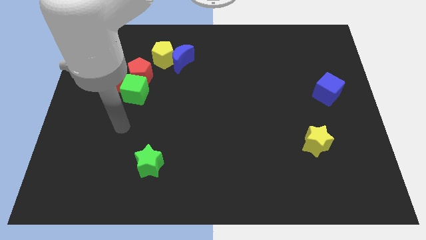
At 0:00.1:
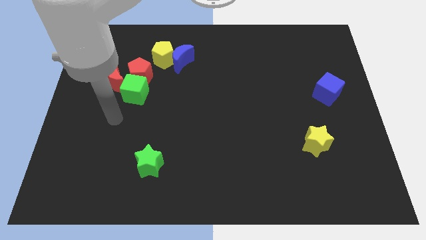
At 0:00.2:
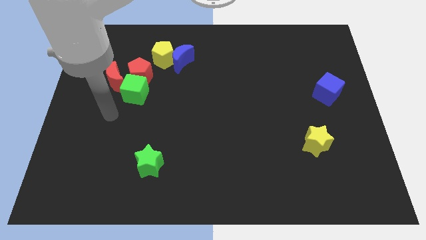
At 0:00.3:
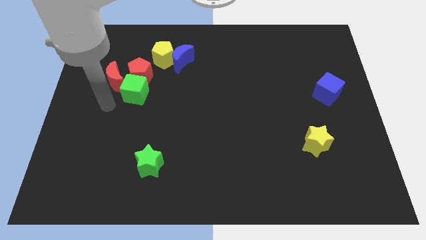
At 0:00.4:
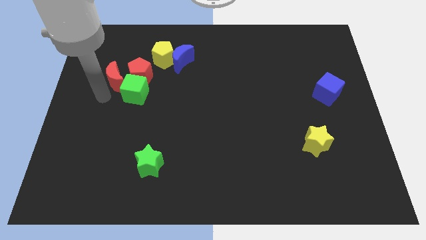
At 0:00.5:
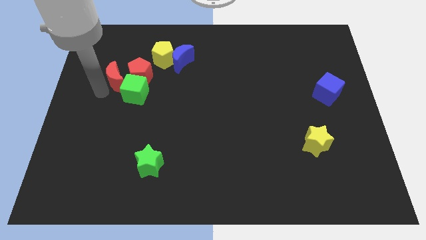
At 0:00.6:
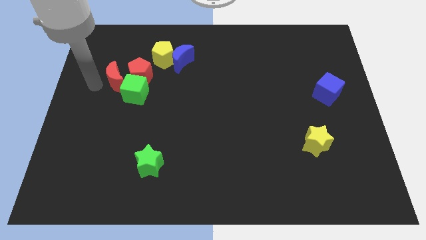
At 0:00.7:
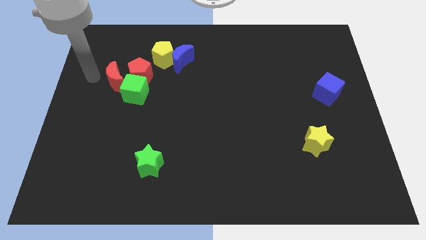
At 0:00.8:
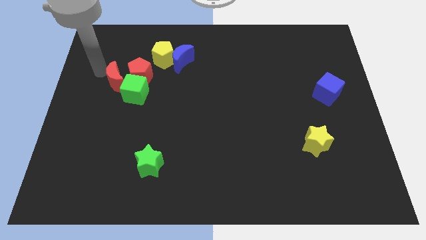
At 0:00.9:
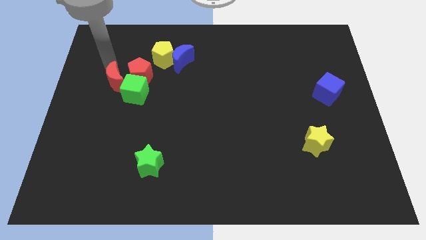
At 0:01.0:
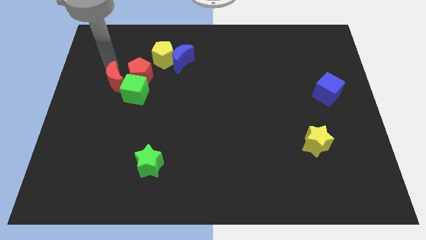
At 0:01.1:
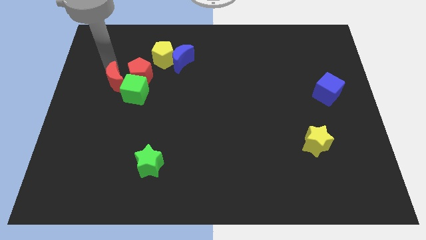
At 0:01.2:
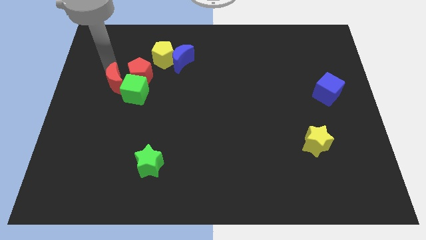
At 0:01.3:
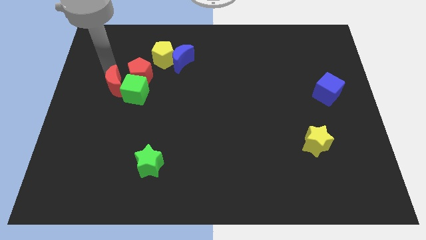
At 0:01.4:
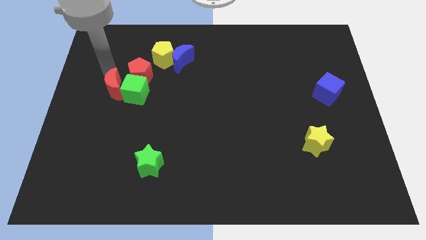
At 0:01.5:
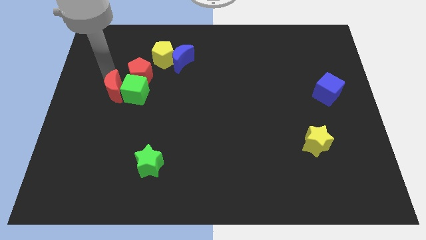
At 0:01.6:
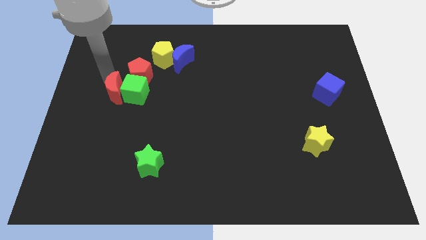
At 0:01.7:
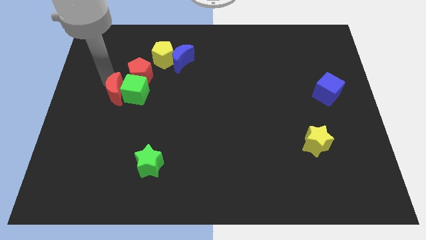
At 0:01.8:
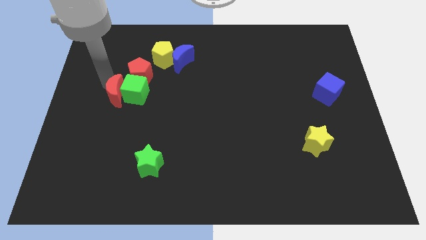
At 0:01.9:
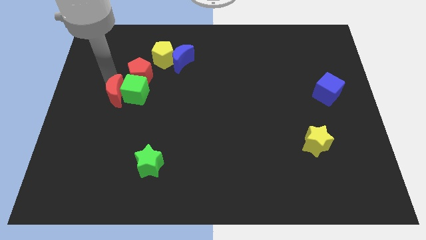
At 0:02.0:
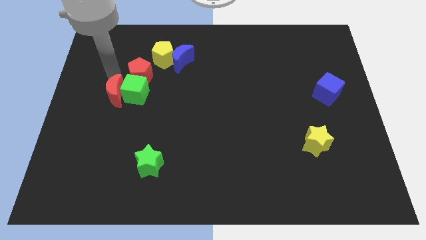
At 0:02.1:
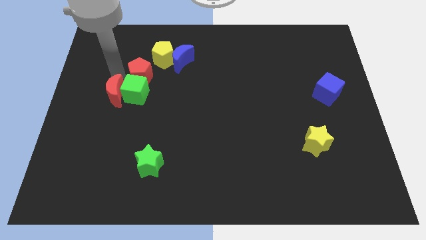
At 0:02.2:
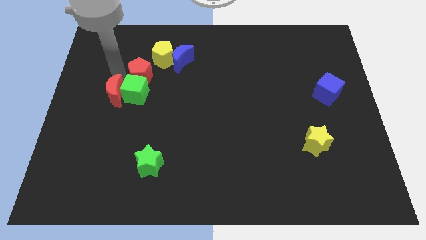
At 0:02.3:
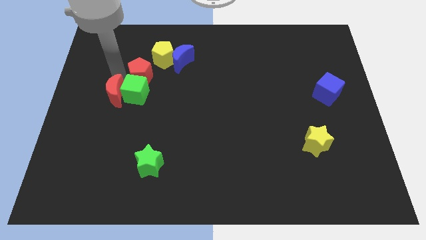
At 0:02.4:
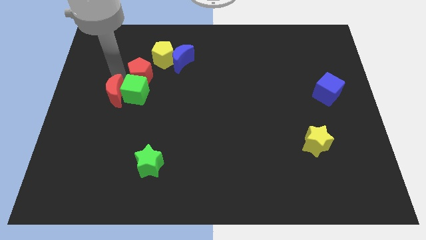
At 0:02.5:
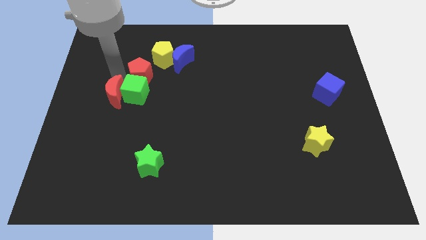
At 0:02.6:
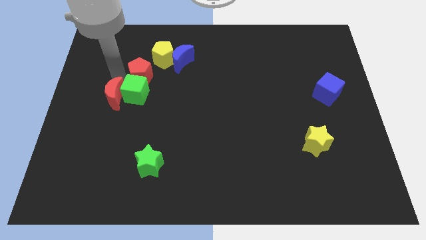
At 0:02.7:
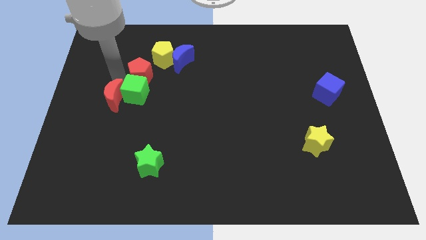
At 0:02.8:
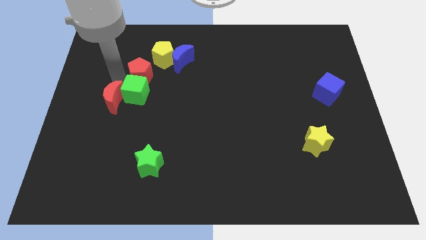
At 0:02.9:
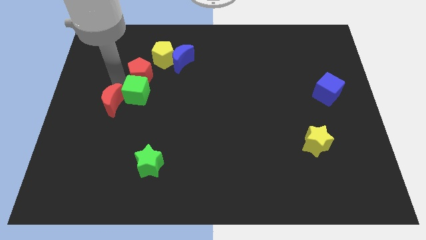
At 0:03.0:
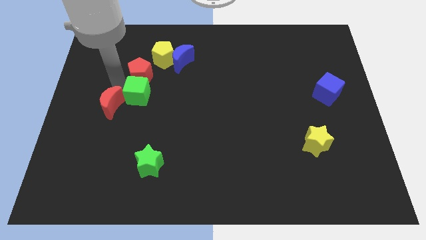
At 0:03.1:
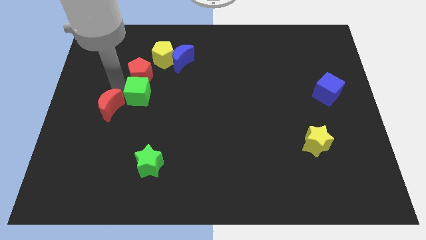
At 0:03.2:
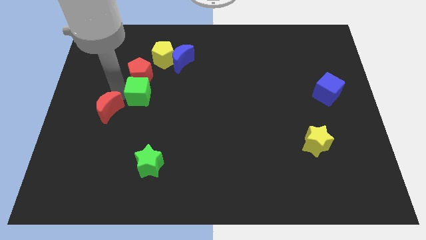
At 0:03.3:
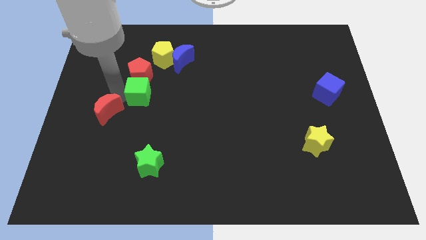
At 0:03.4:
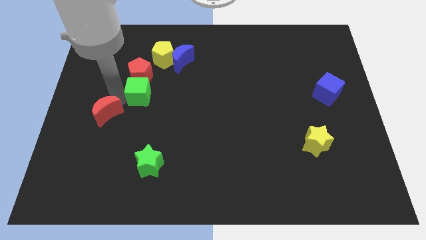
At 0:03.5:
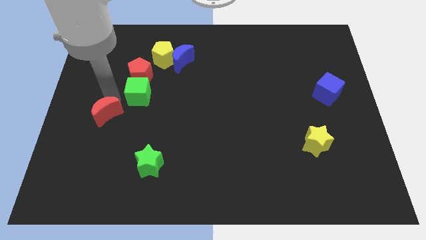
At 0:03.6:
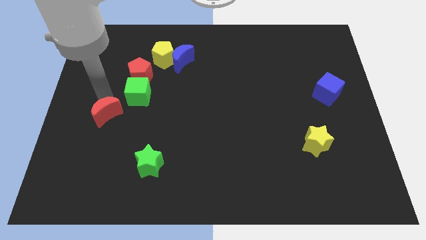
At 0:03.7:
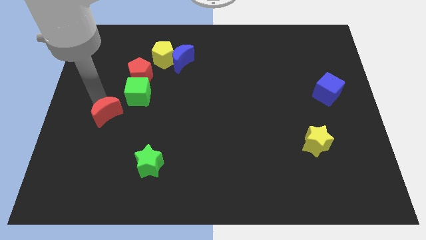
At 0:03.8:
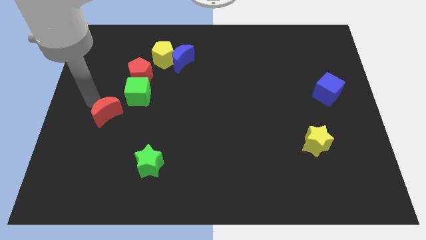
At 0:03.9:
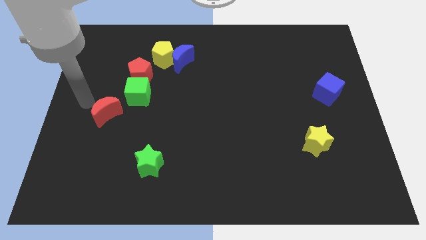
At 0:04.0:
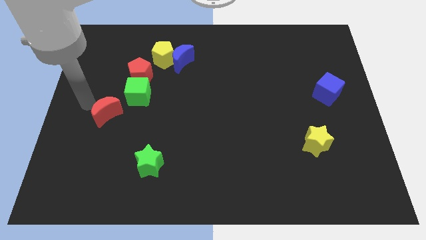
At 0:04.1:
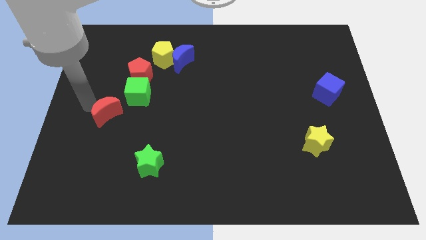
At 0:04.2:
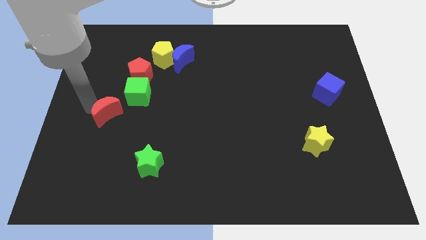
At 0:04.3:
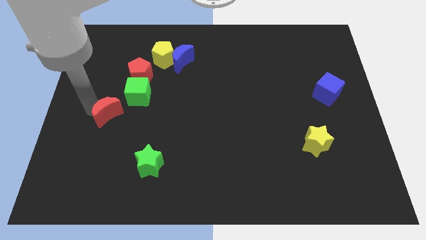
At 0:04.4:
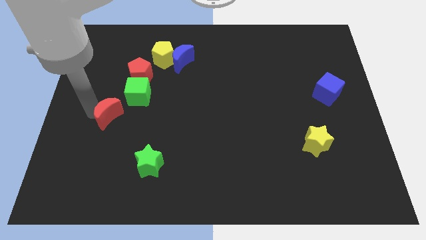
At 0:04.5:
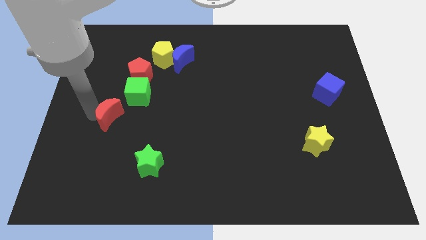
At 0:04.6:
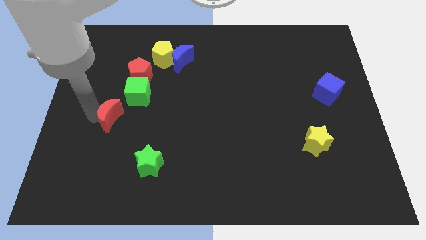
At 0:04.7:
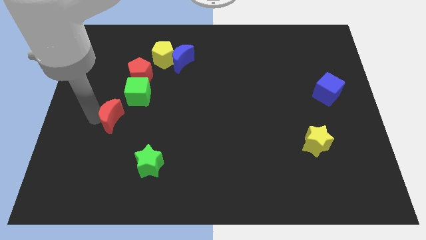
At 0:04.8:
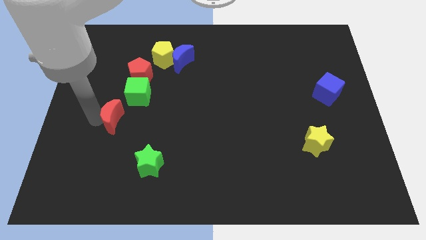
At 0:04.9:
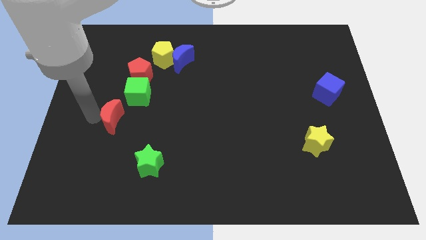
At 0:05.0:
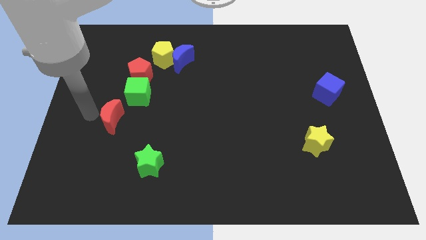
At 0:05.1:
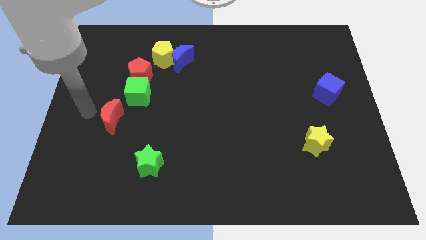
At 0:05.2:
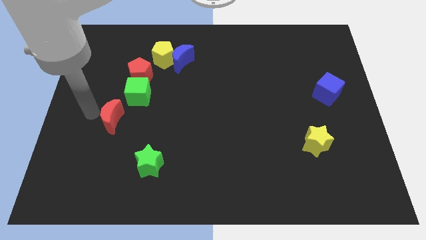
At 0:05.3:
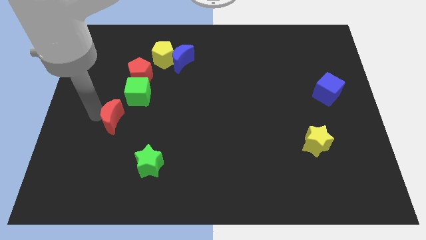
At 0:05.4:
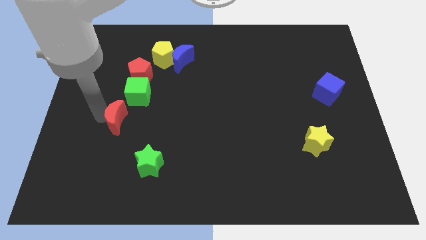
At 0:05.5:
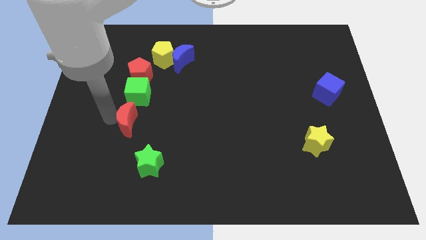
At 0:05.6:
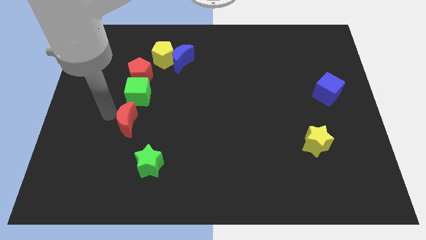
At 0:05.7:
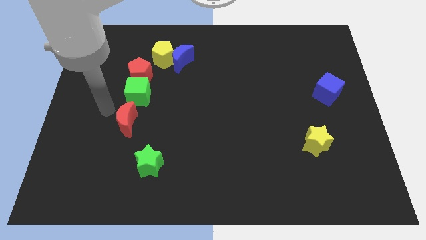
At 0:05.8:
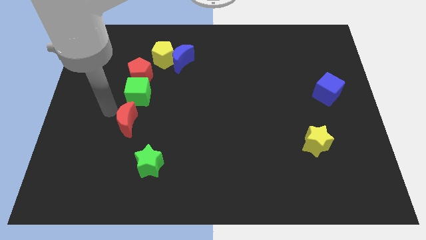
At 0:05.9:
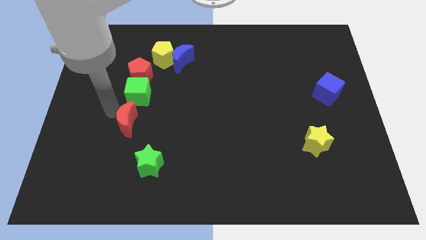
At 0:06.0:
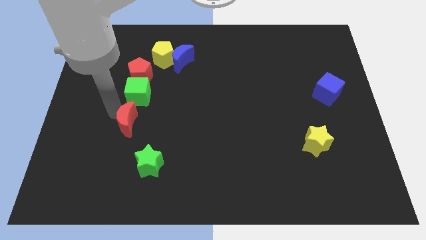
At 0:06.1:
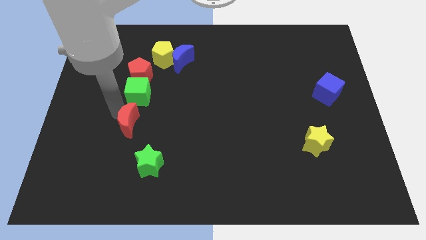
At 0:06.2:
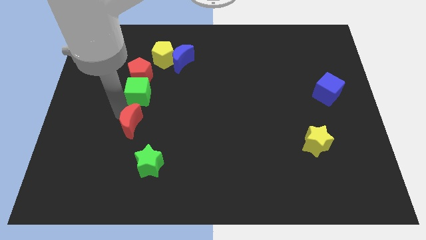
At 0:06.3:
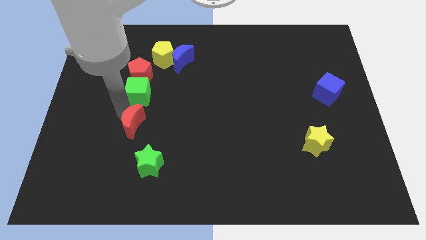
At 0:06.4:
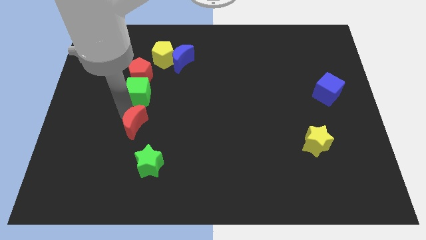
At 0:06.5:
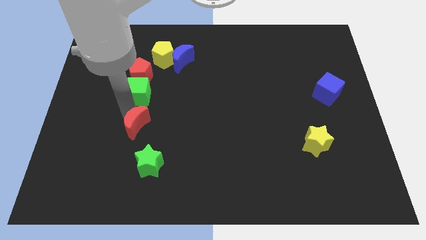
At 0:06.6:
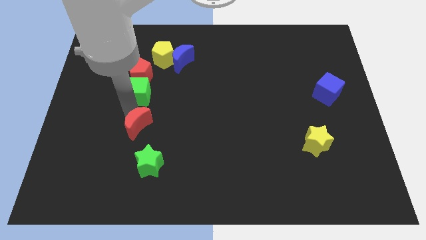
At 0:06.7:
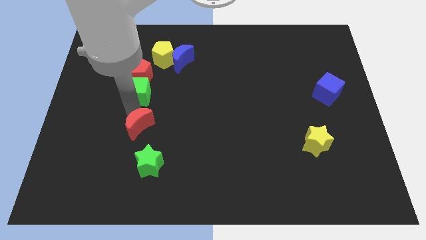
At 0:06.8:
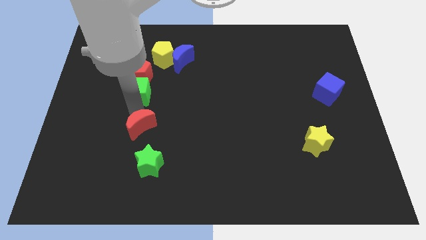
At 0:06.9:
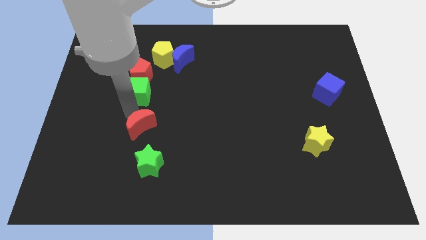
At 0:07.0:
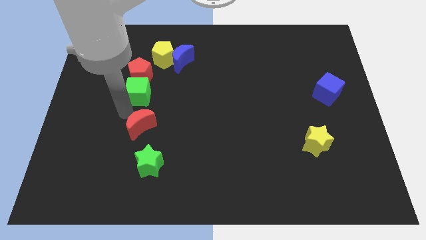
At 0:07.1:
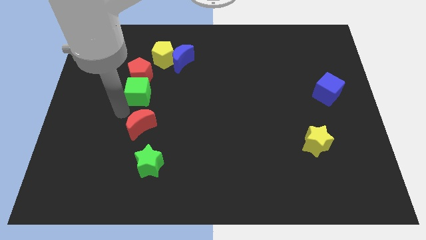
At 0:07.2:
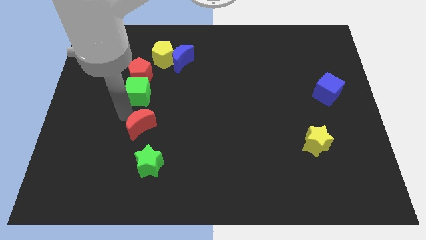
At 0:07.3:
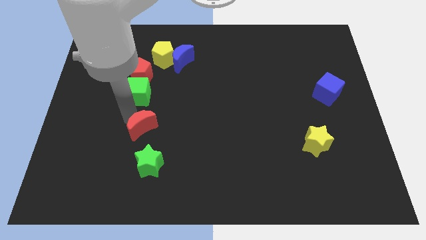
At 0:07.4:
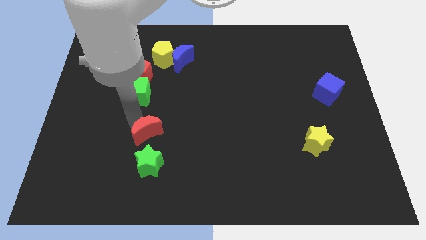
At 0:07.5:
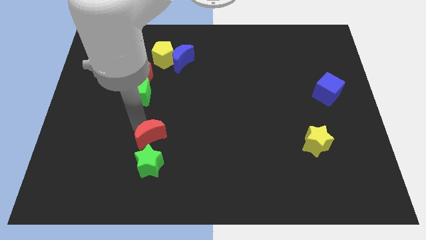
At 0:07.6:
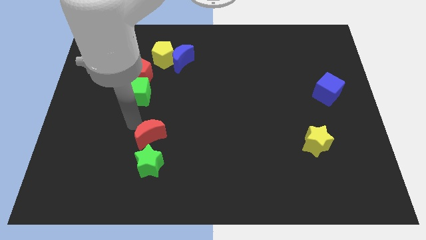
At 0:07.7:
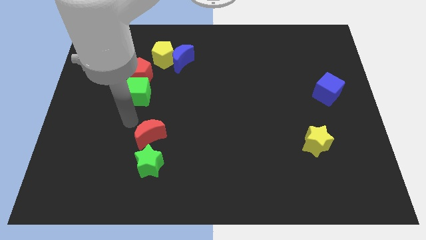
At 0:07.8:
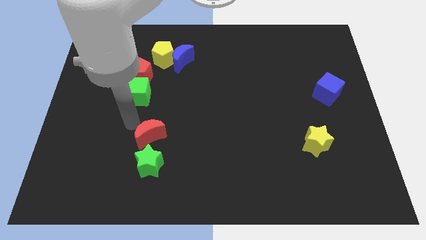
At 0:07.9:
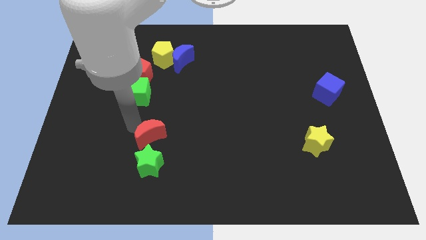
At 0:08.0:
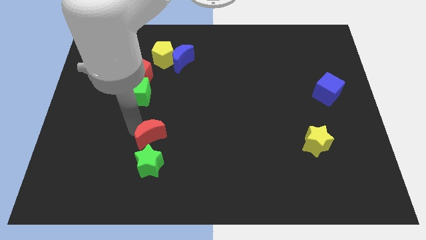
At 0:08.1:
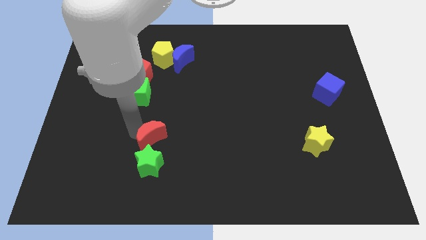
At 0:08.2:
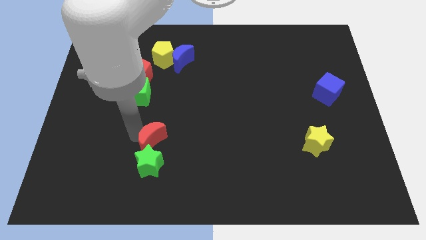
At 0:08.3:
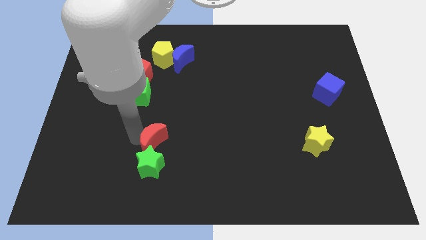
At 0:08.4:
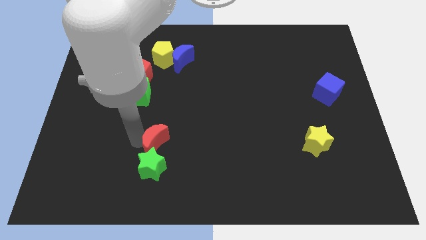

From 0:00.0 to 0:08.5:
move the red moon downwards and to the right diagonally
